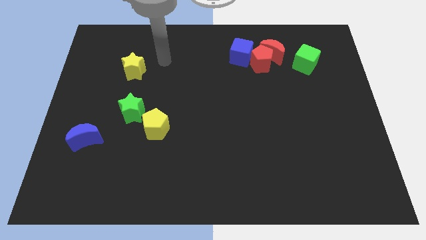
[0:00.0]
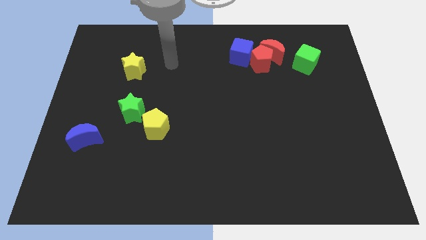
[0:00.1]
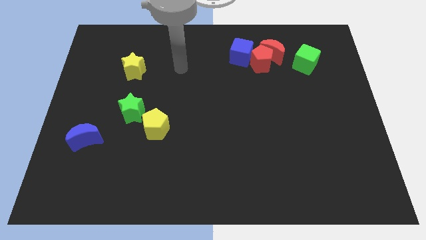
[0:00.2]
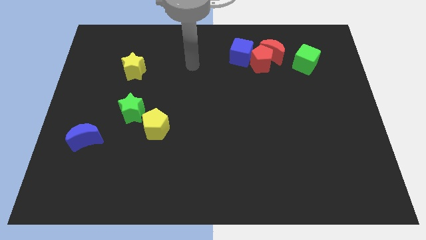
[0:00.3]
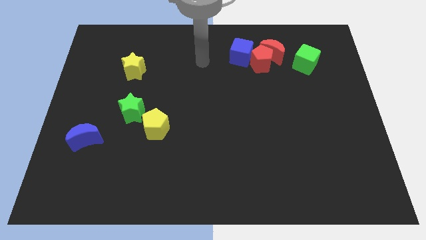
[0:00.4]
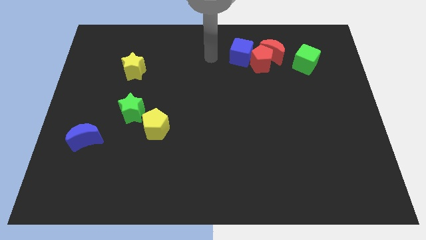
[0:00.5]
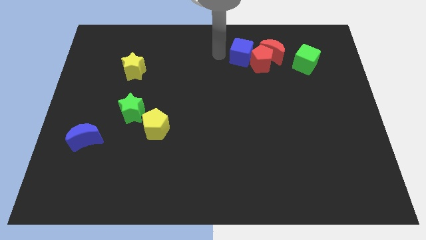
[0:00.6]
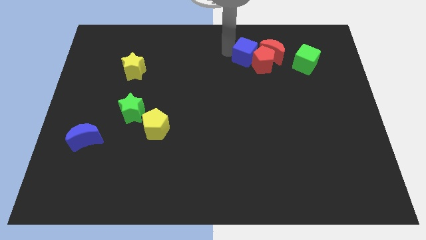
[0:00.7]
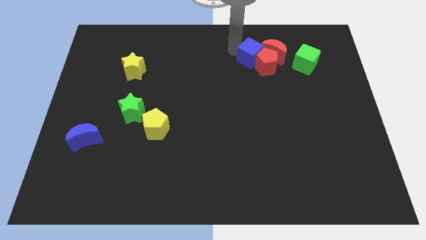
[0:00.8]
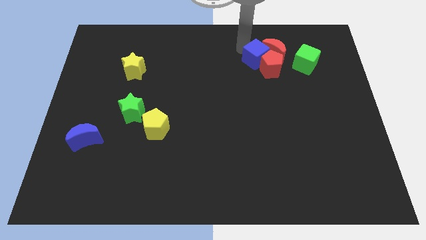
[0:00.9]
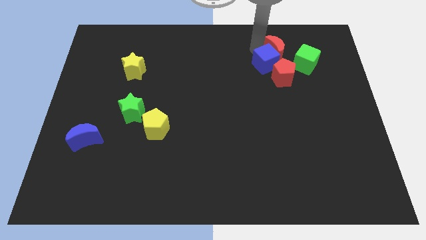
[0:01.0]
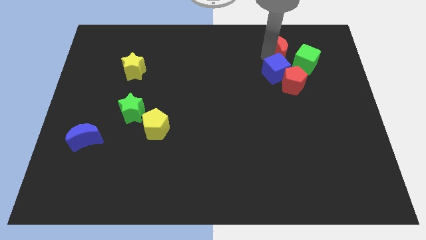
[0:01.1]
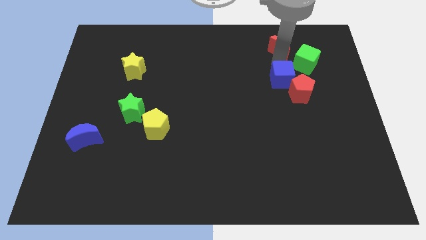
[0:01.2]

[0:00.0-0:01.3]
separate the red pentagon from the red moon and blue cube

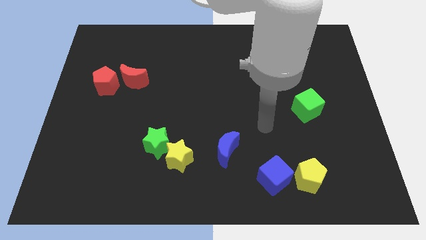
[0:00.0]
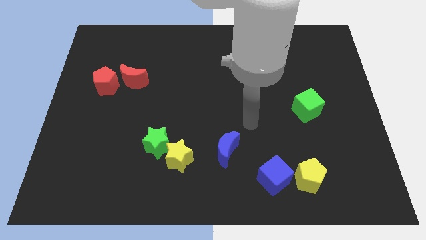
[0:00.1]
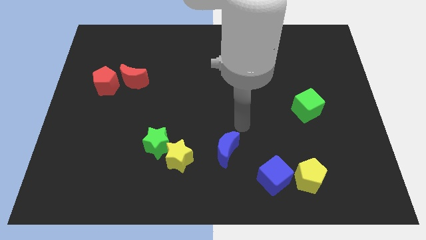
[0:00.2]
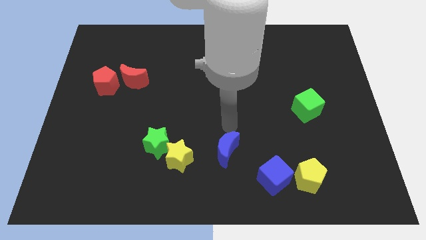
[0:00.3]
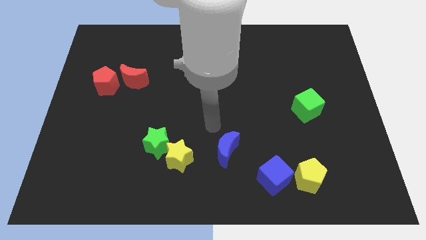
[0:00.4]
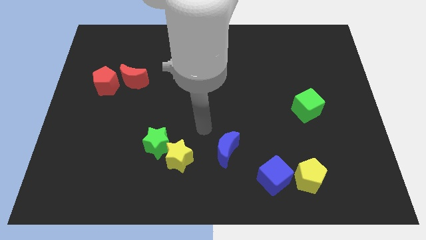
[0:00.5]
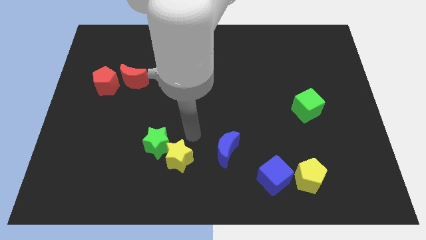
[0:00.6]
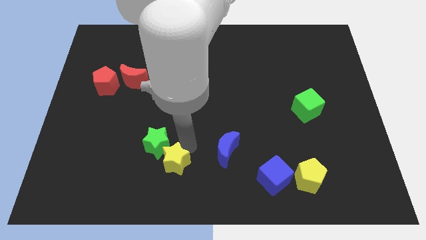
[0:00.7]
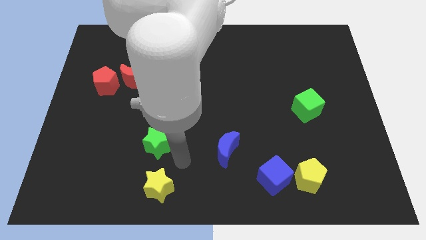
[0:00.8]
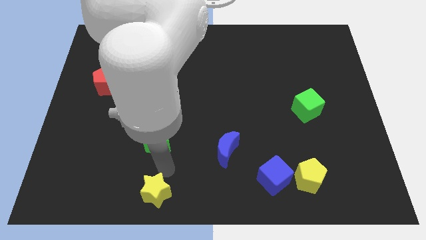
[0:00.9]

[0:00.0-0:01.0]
separate the green star from the yellow star

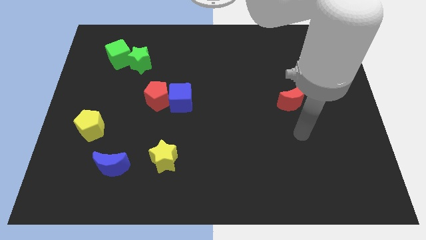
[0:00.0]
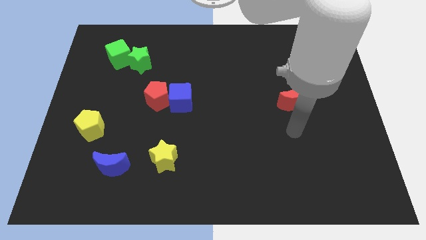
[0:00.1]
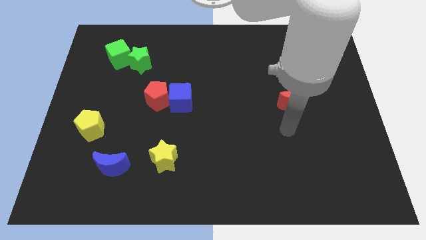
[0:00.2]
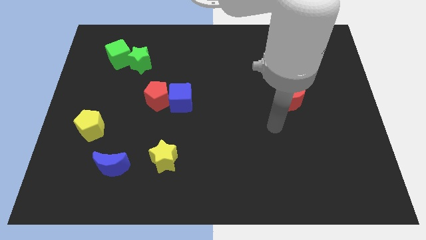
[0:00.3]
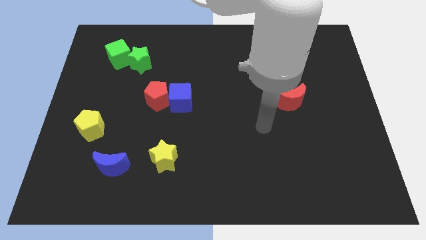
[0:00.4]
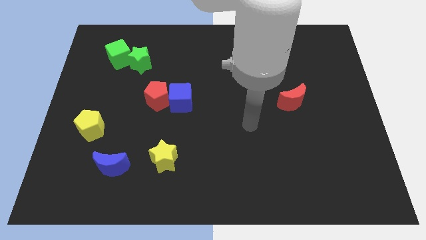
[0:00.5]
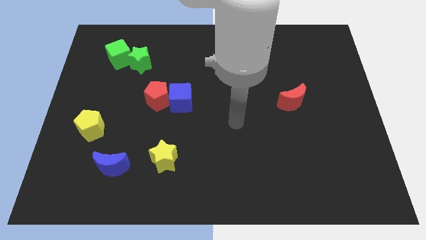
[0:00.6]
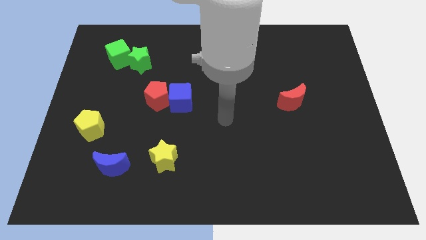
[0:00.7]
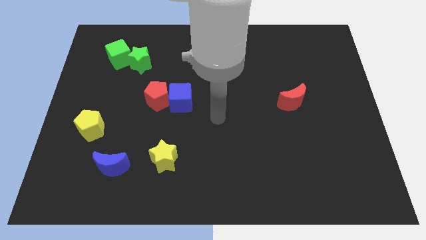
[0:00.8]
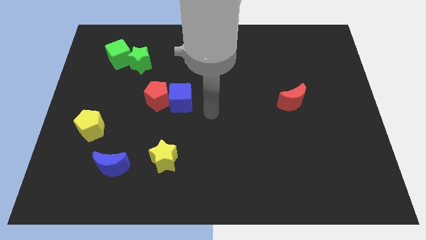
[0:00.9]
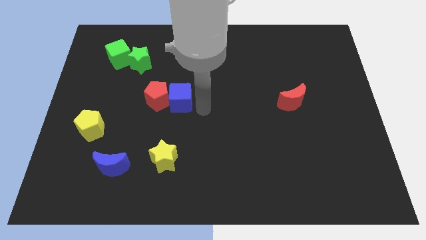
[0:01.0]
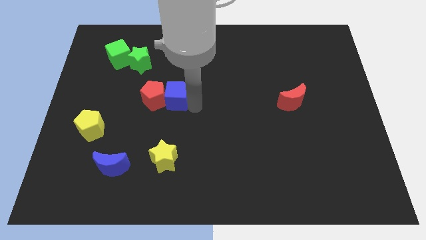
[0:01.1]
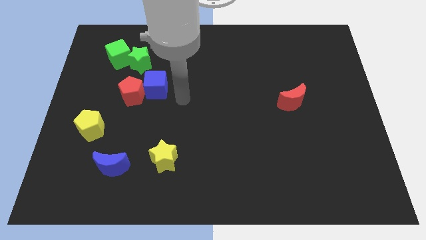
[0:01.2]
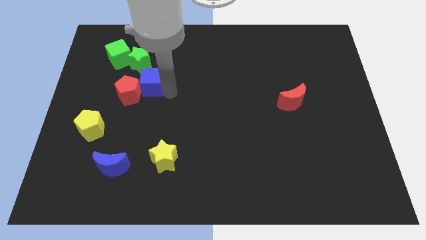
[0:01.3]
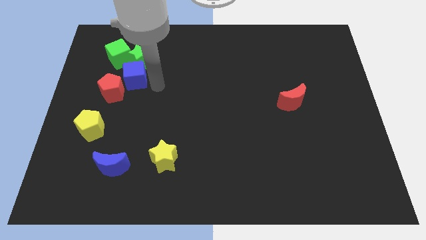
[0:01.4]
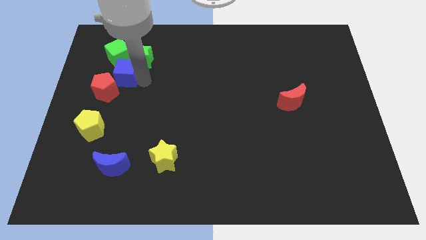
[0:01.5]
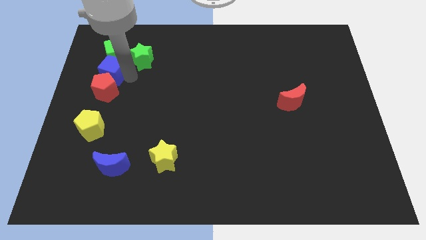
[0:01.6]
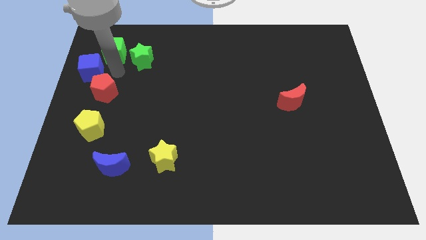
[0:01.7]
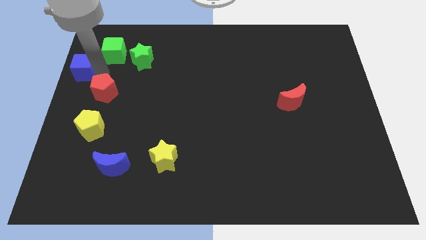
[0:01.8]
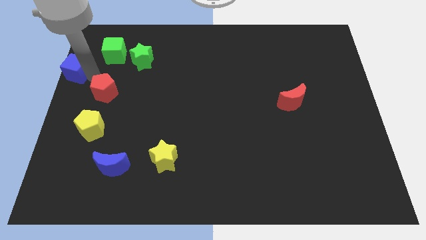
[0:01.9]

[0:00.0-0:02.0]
move the red pentagon away from the blue cube

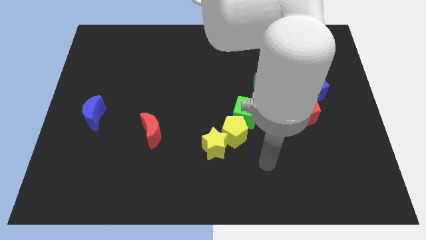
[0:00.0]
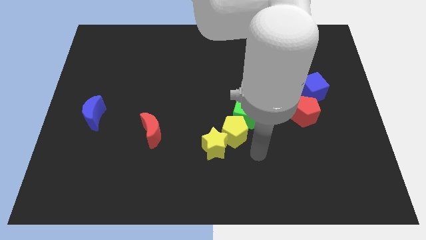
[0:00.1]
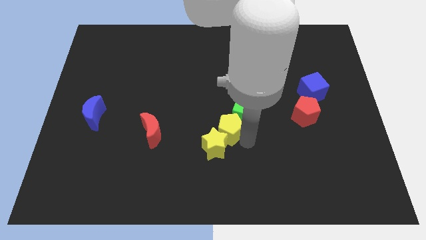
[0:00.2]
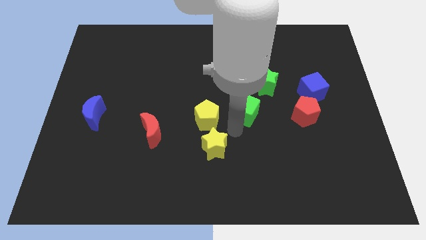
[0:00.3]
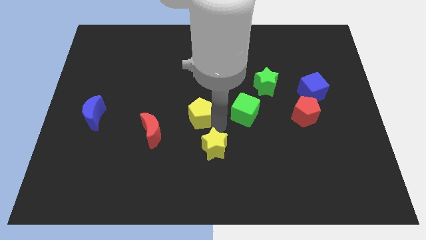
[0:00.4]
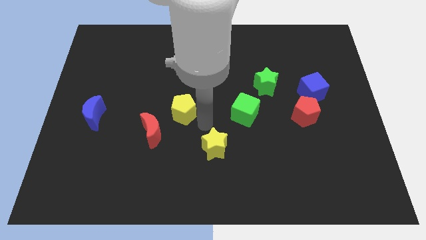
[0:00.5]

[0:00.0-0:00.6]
separate the yellow star from the yellow pentagon

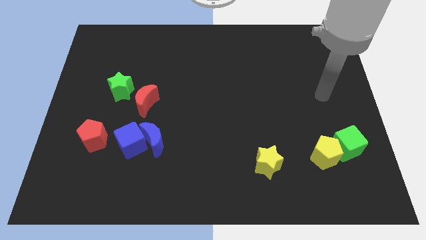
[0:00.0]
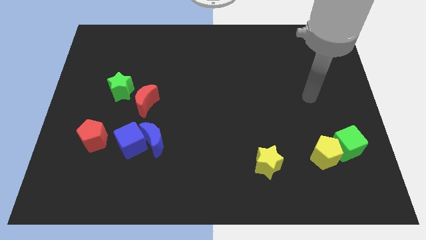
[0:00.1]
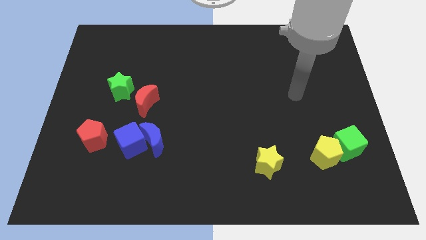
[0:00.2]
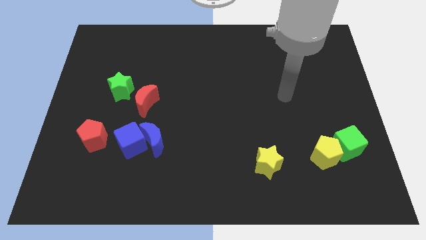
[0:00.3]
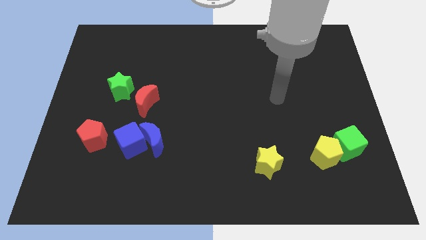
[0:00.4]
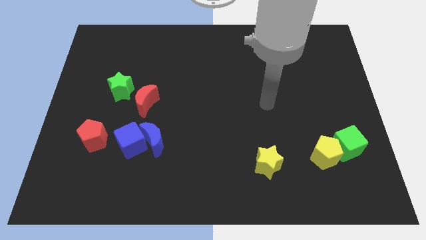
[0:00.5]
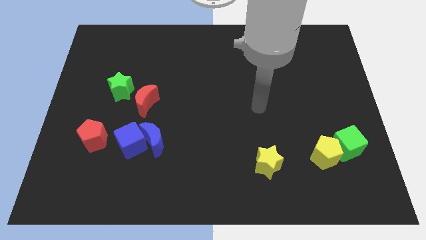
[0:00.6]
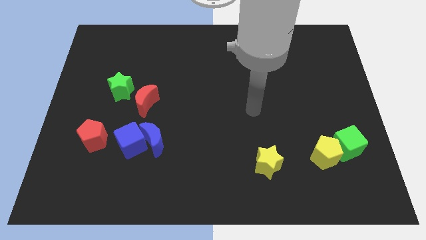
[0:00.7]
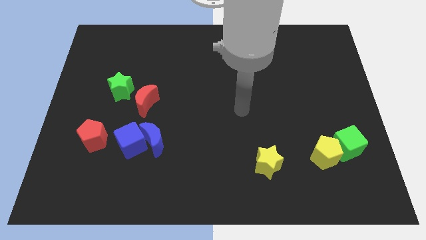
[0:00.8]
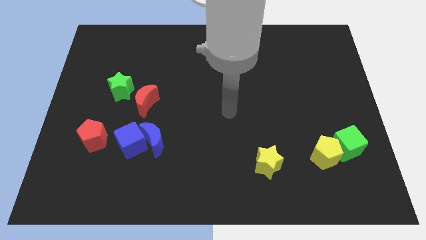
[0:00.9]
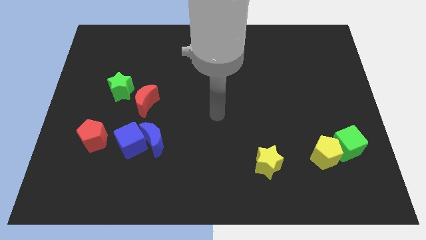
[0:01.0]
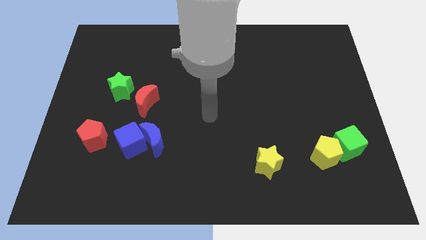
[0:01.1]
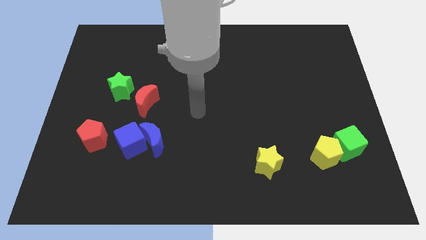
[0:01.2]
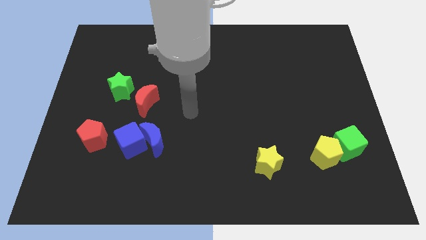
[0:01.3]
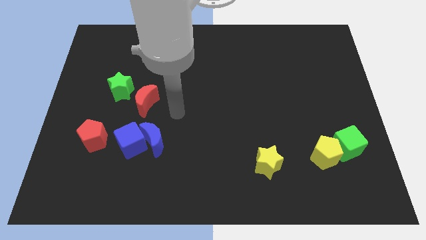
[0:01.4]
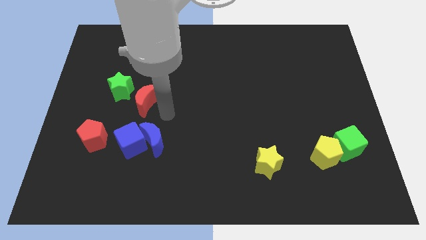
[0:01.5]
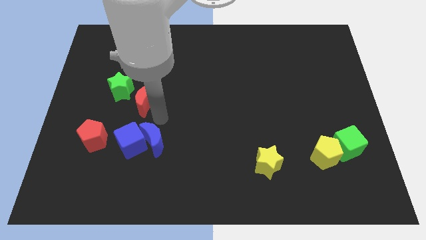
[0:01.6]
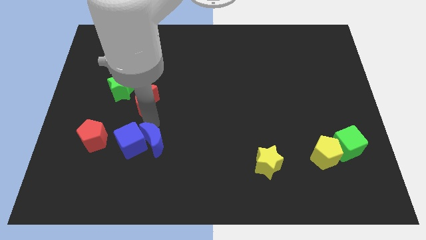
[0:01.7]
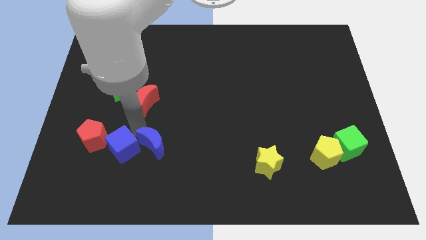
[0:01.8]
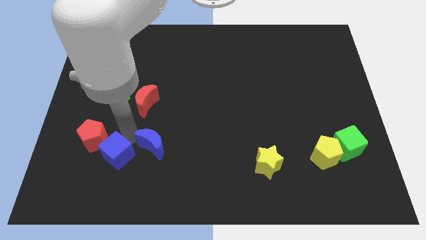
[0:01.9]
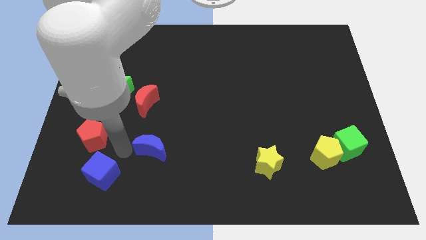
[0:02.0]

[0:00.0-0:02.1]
pull the blue moon apart from the blue cube

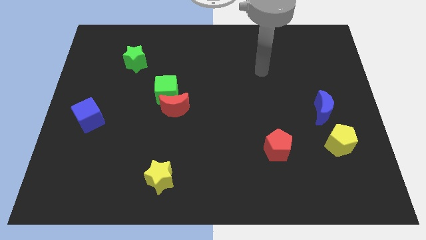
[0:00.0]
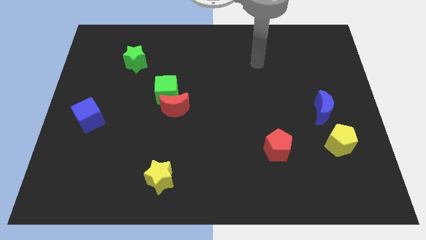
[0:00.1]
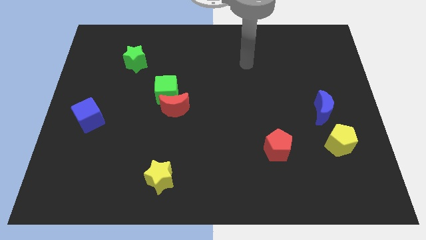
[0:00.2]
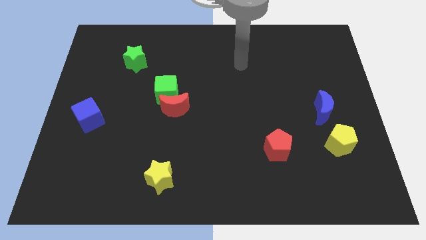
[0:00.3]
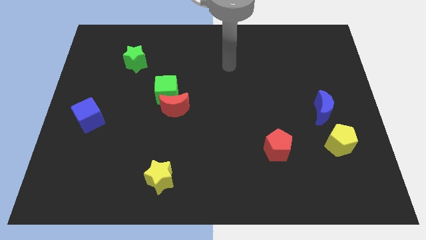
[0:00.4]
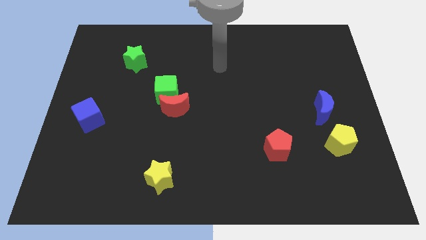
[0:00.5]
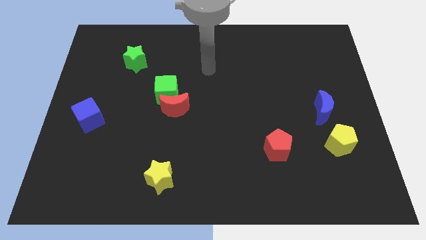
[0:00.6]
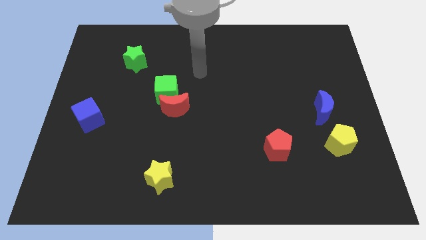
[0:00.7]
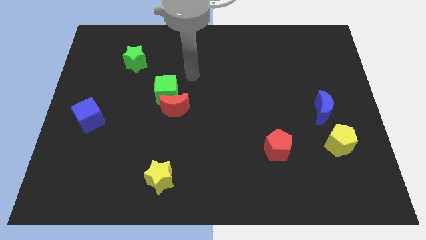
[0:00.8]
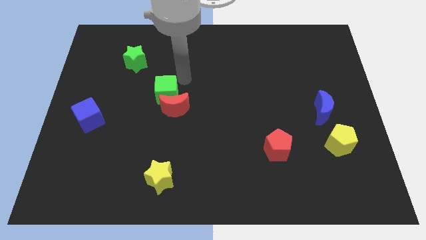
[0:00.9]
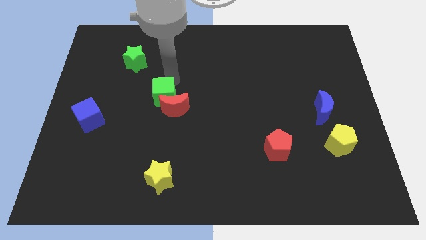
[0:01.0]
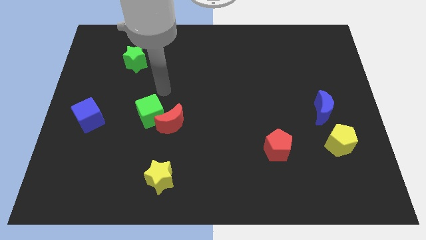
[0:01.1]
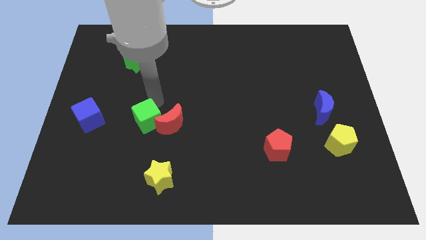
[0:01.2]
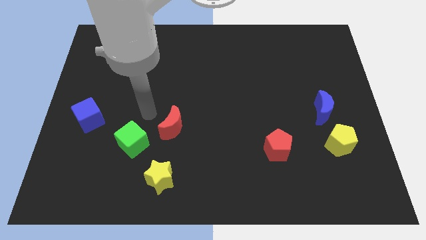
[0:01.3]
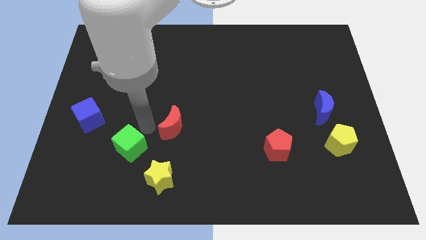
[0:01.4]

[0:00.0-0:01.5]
separate the red moon from the green cube

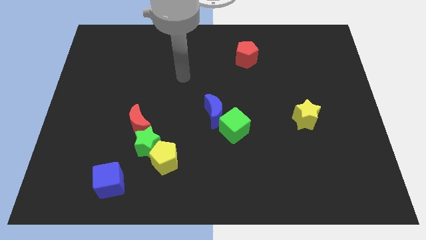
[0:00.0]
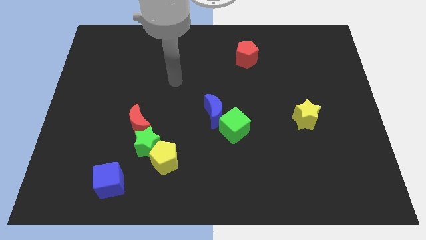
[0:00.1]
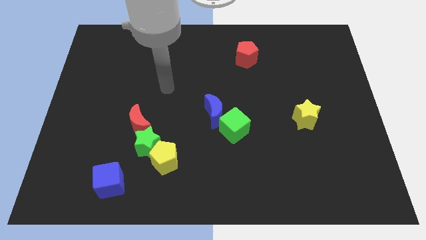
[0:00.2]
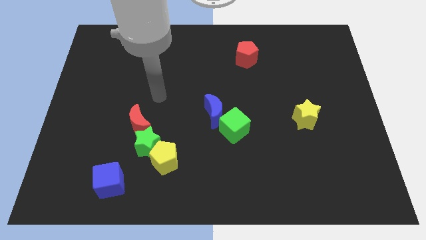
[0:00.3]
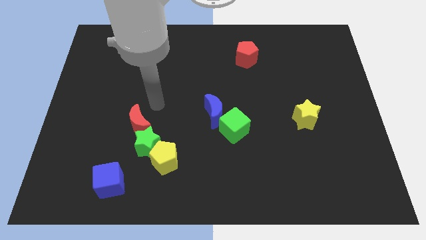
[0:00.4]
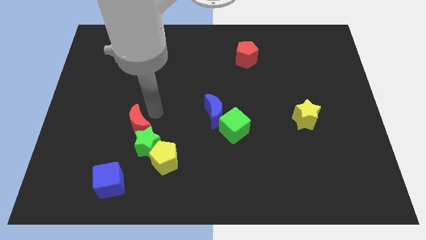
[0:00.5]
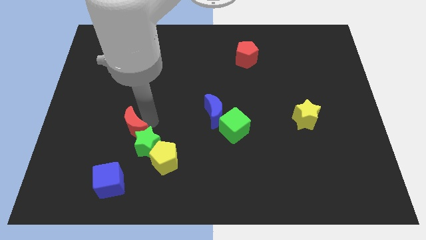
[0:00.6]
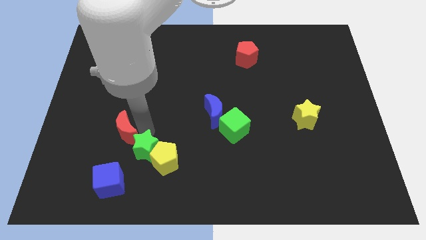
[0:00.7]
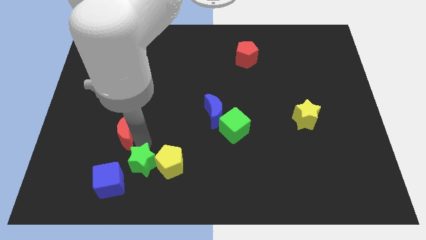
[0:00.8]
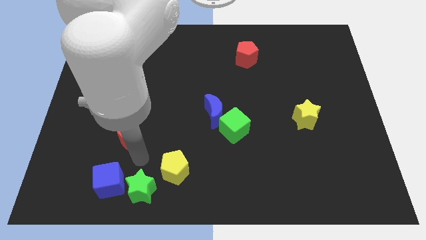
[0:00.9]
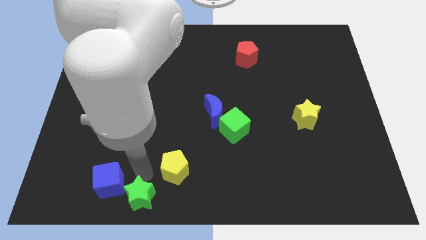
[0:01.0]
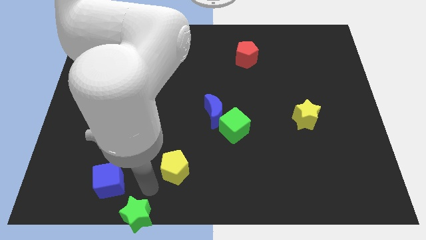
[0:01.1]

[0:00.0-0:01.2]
separate the yellow pentagon from the green star
